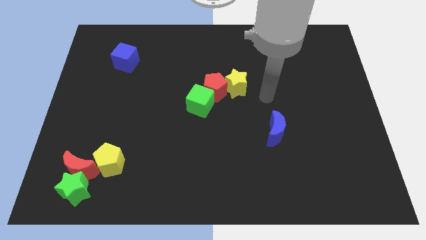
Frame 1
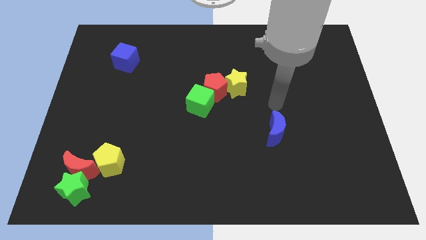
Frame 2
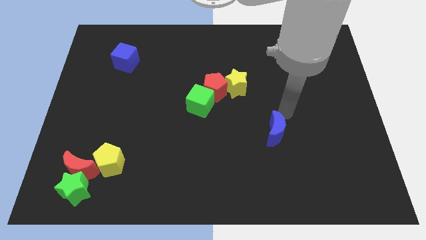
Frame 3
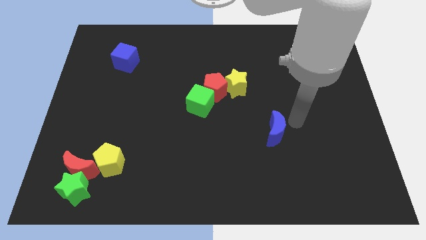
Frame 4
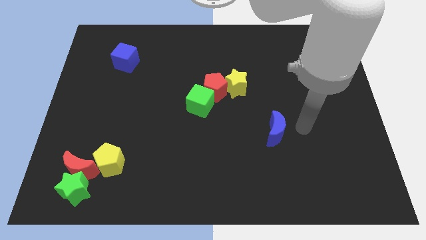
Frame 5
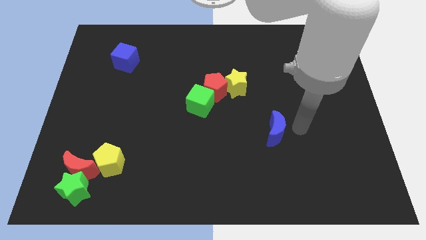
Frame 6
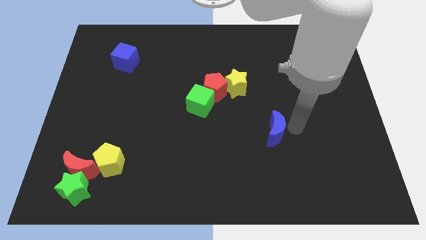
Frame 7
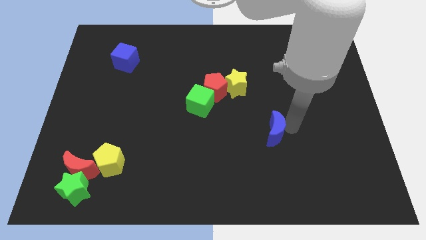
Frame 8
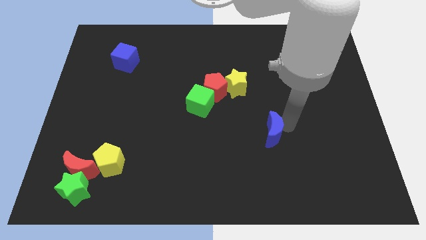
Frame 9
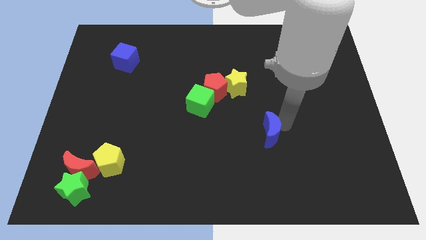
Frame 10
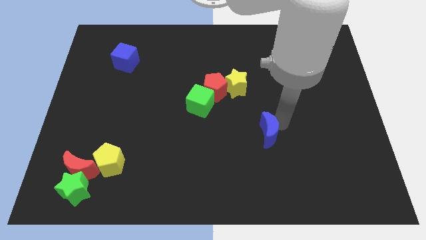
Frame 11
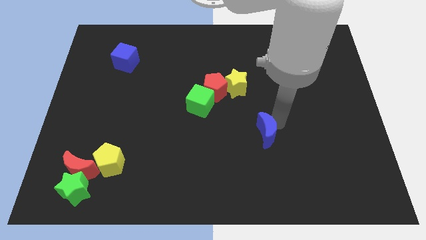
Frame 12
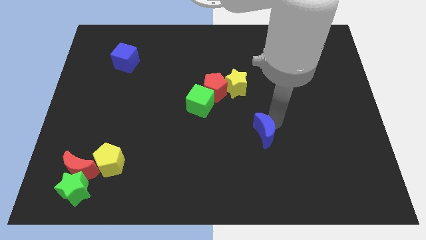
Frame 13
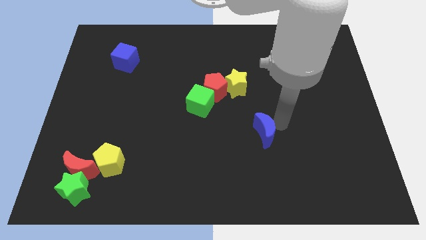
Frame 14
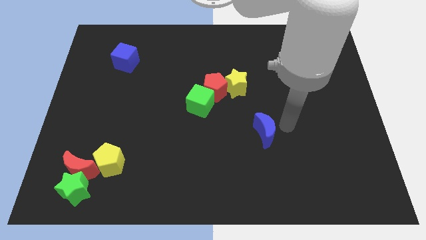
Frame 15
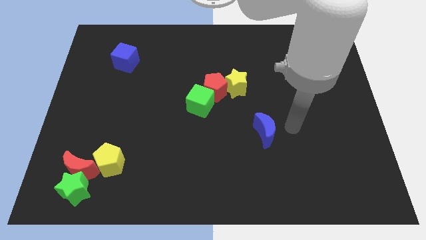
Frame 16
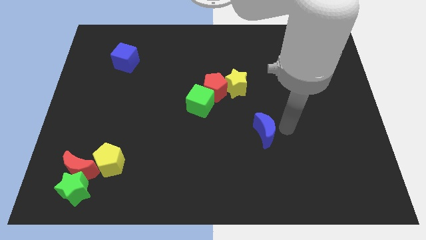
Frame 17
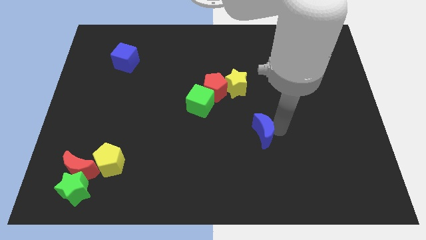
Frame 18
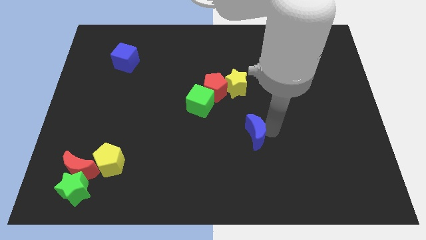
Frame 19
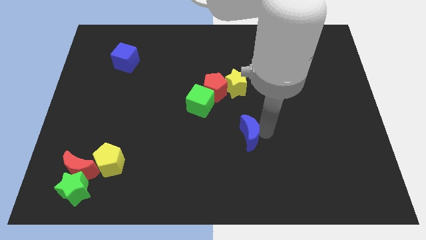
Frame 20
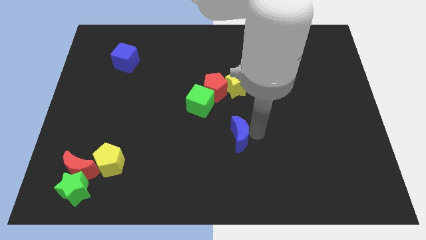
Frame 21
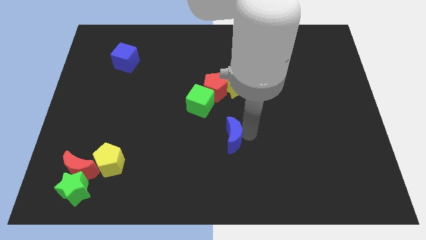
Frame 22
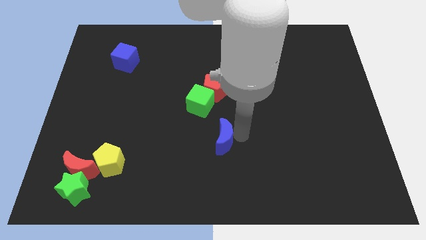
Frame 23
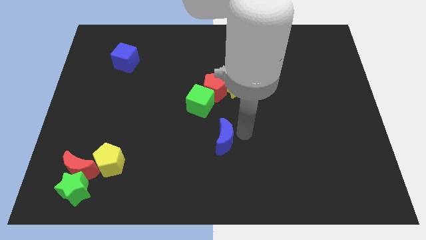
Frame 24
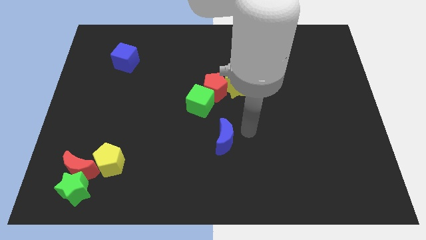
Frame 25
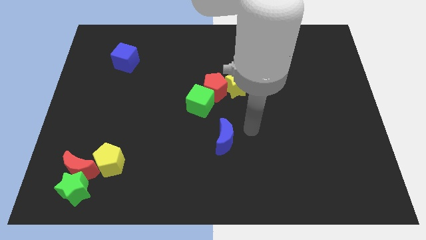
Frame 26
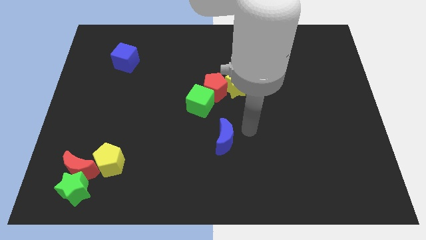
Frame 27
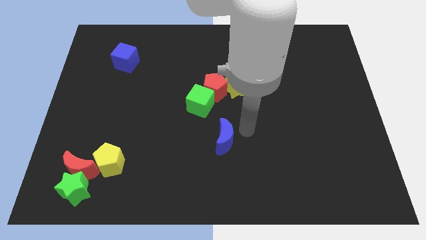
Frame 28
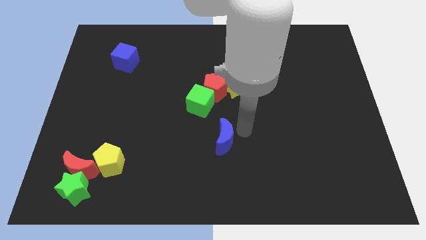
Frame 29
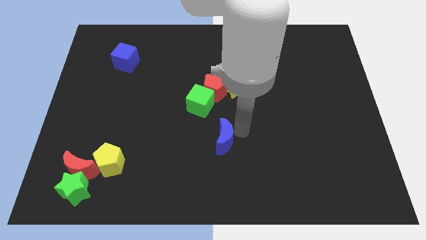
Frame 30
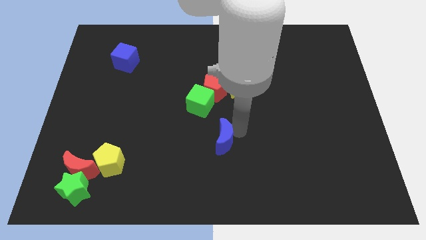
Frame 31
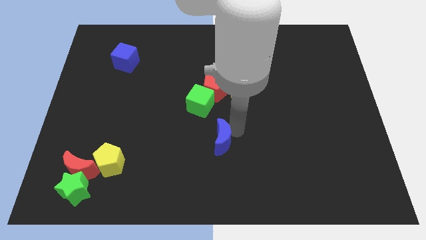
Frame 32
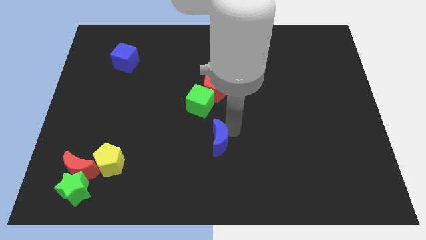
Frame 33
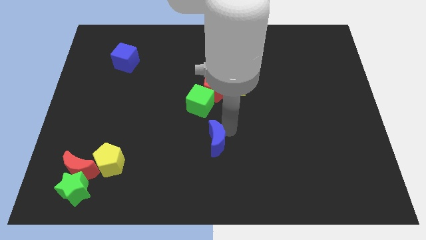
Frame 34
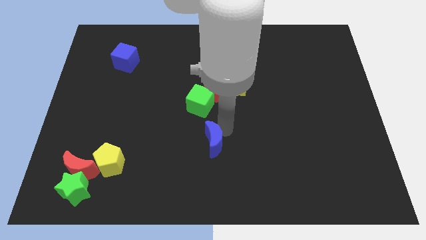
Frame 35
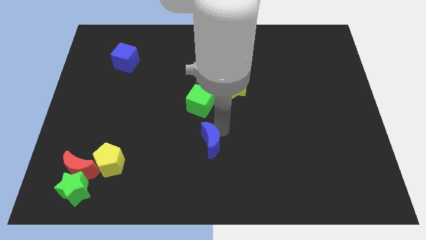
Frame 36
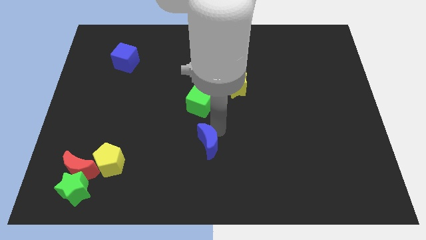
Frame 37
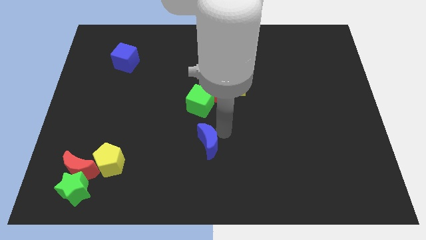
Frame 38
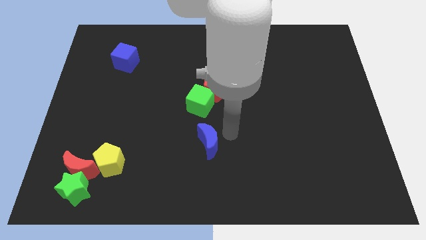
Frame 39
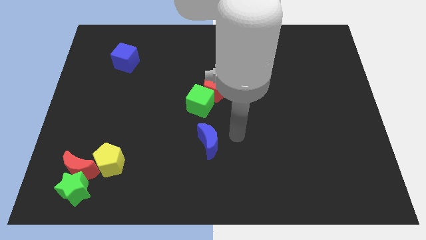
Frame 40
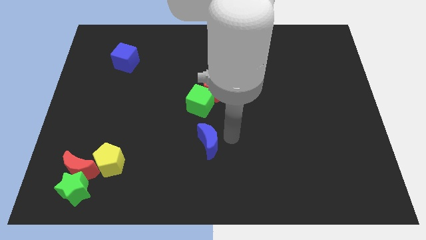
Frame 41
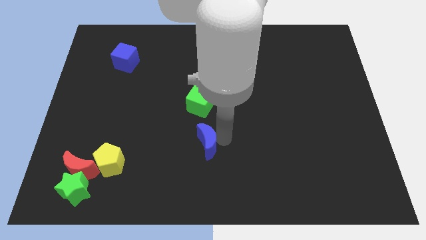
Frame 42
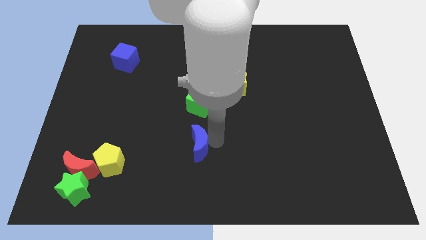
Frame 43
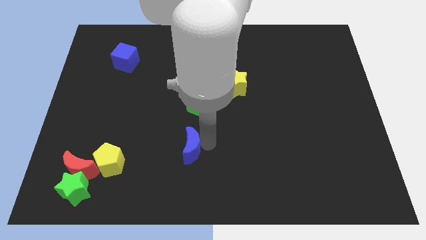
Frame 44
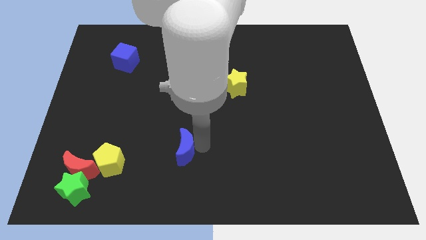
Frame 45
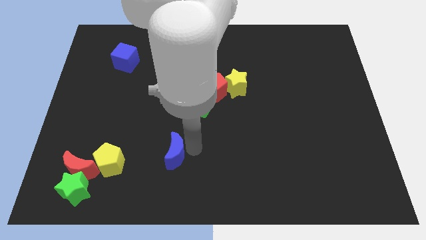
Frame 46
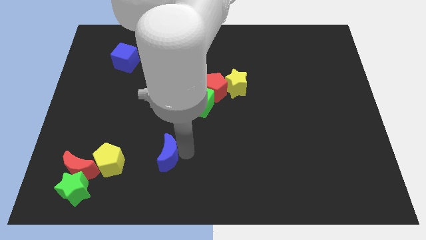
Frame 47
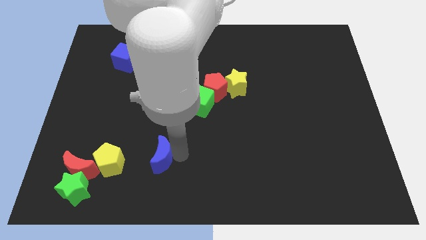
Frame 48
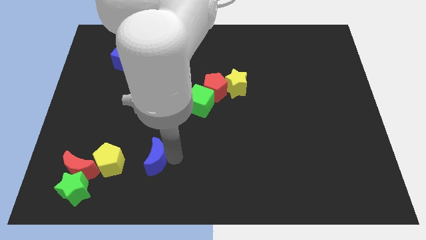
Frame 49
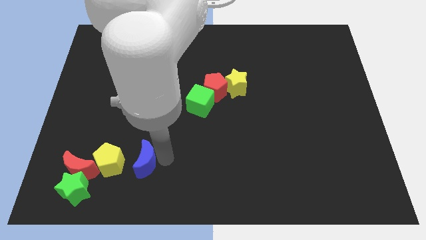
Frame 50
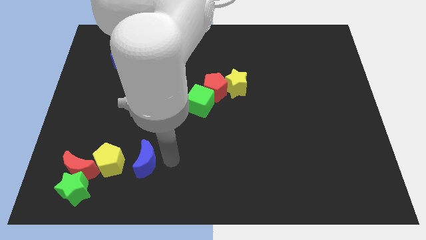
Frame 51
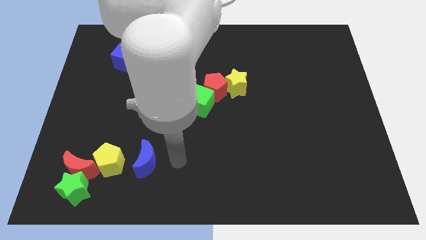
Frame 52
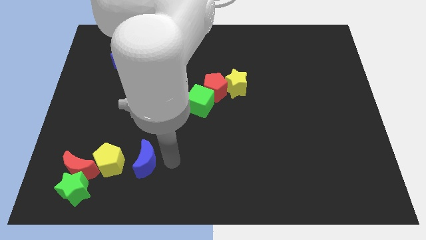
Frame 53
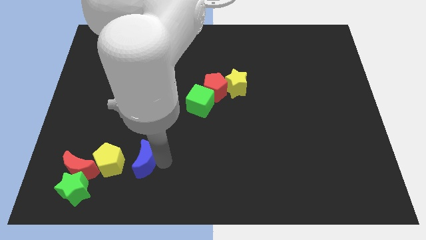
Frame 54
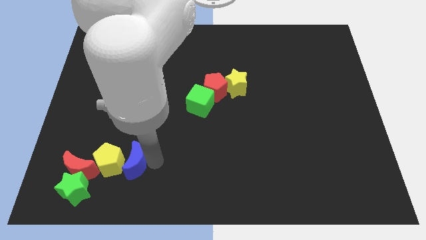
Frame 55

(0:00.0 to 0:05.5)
push the blue moon towards the yellow pentagon

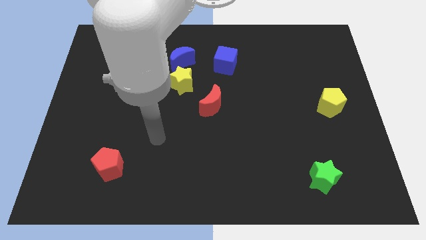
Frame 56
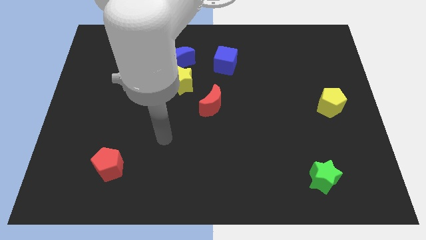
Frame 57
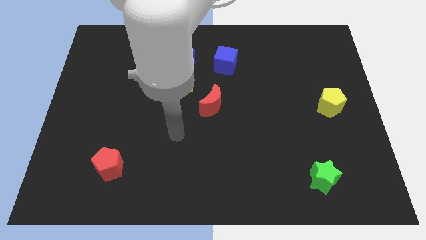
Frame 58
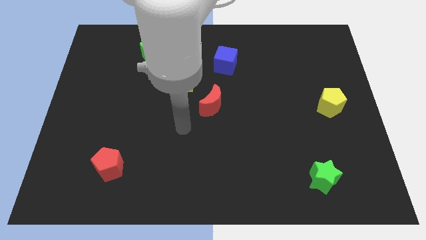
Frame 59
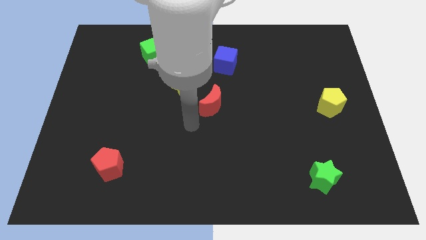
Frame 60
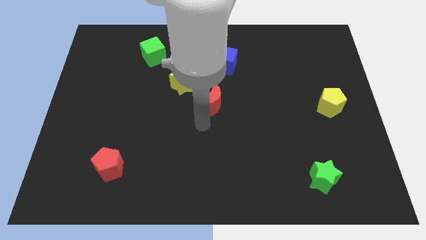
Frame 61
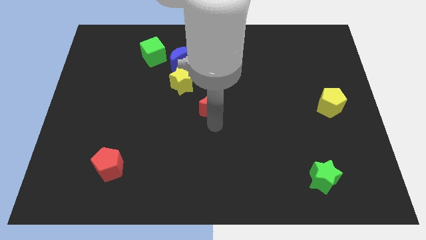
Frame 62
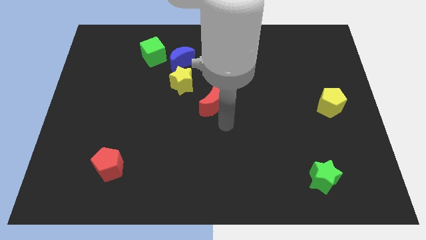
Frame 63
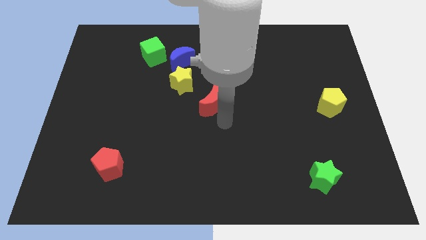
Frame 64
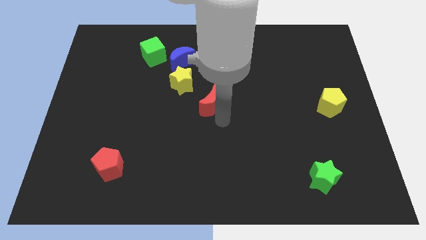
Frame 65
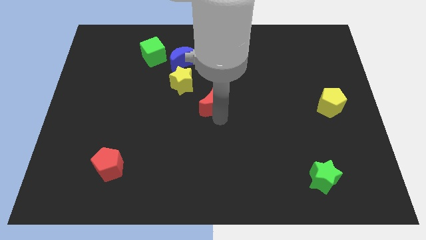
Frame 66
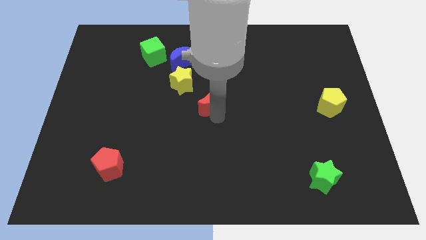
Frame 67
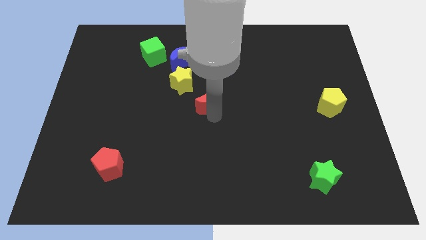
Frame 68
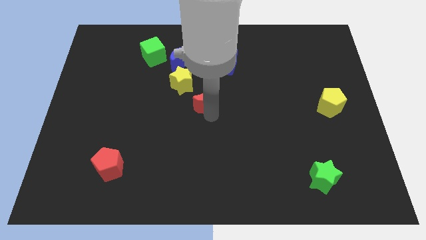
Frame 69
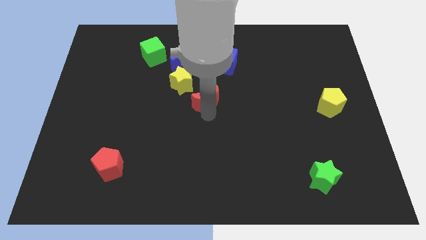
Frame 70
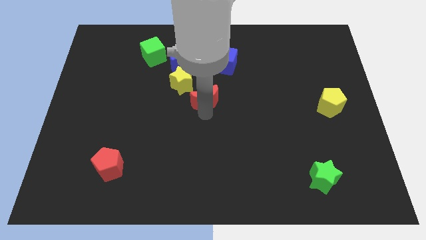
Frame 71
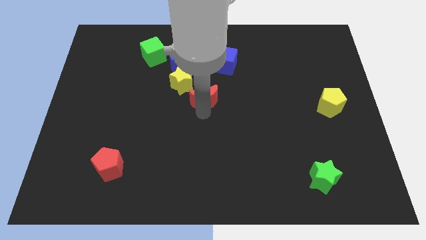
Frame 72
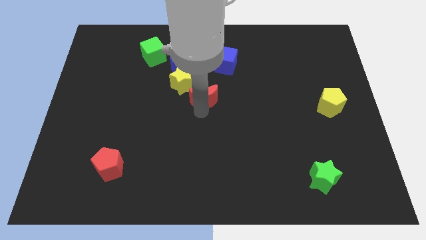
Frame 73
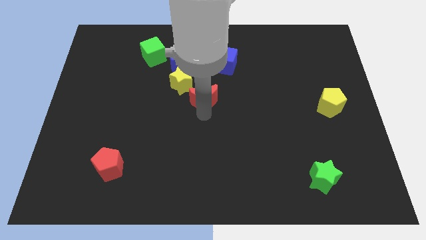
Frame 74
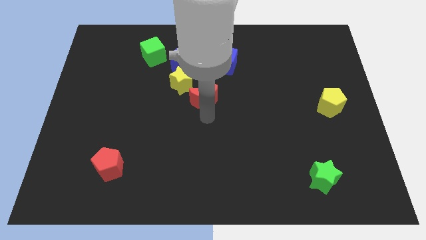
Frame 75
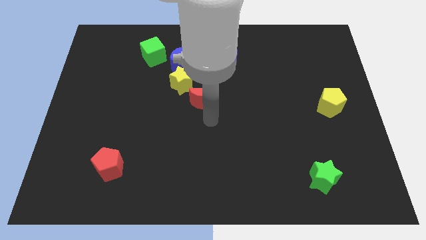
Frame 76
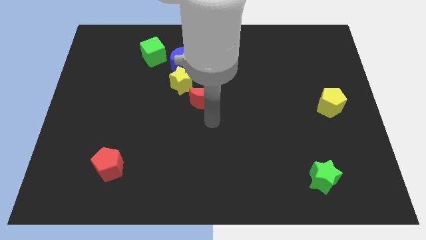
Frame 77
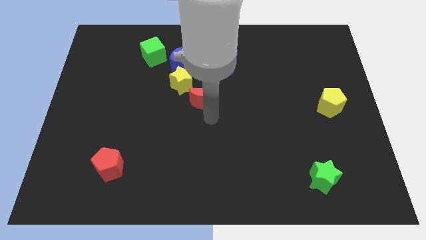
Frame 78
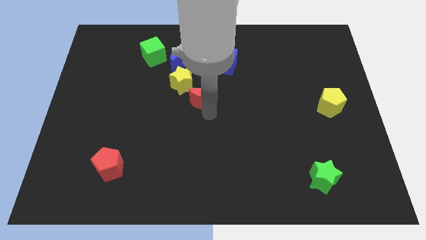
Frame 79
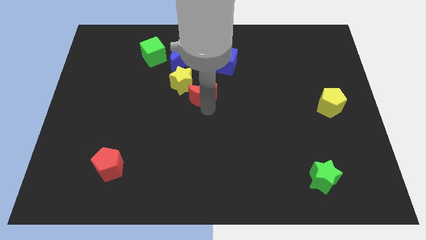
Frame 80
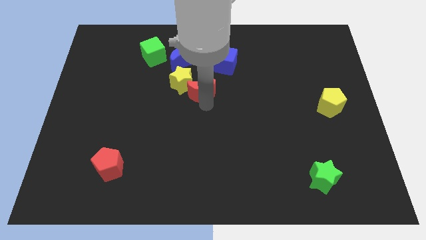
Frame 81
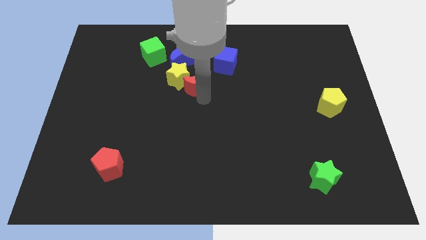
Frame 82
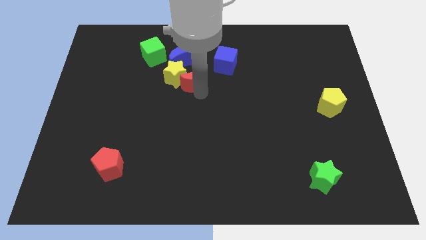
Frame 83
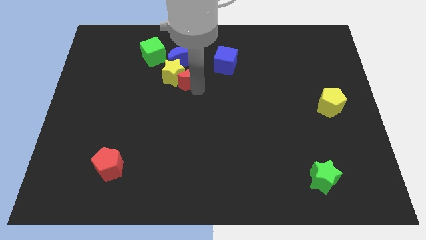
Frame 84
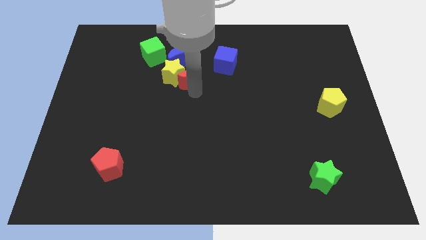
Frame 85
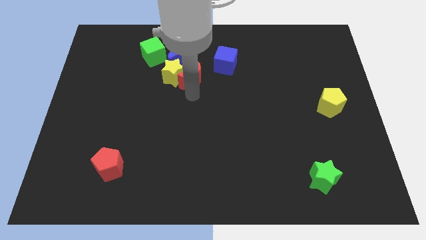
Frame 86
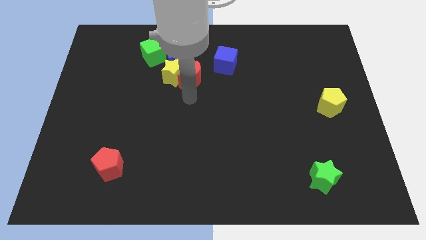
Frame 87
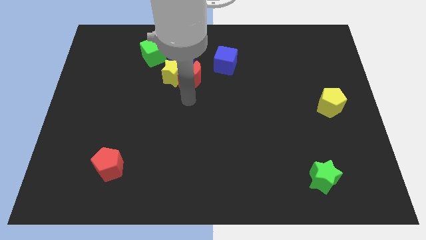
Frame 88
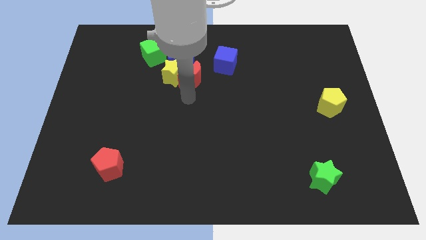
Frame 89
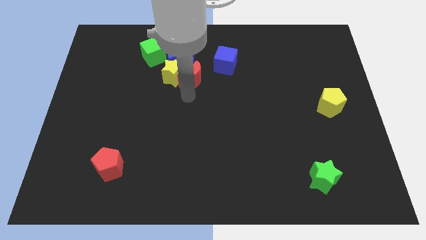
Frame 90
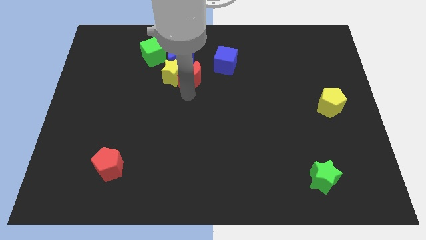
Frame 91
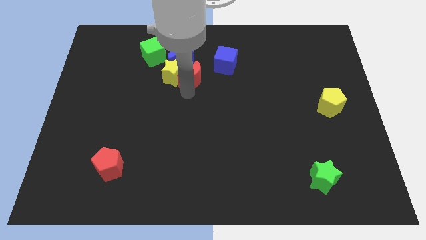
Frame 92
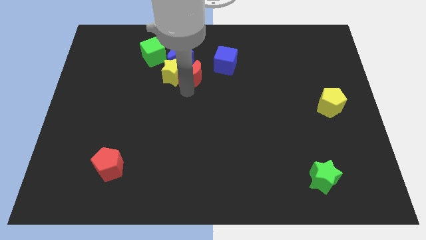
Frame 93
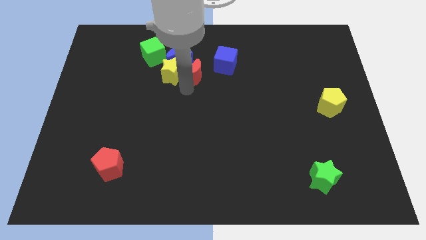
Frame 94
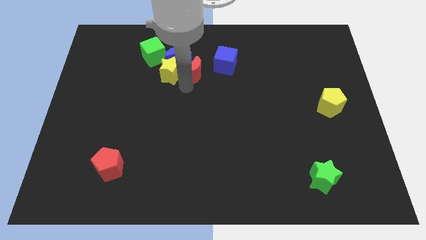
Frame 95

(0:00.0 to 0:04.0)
push the red moon next to the blue moon
